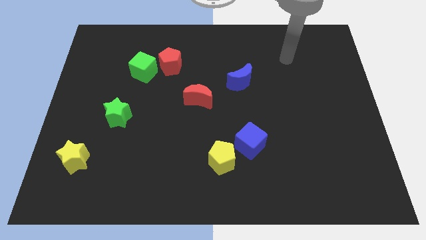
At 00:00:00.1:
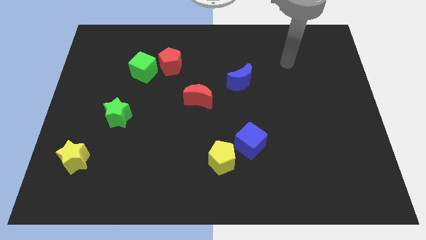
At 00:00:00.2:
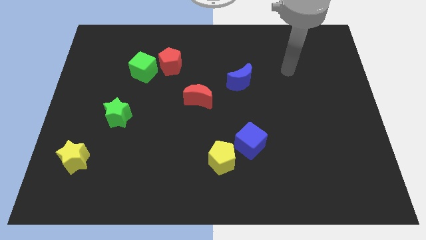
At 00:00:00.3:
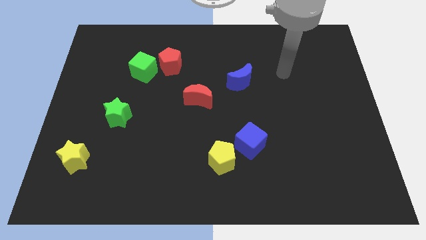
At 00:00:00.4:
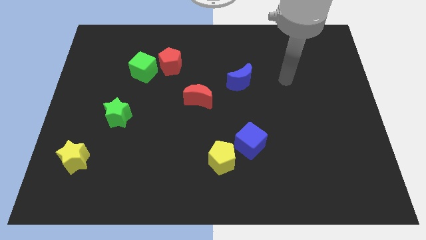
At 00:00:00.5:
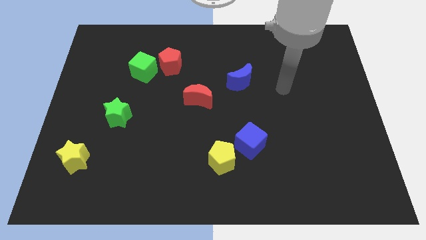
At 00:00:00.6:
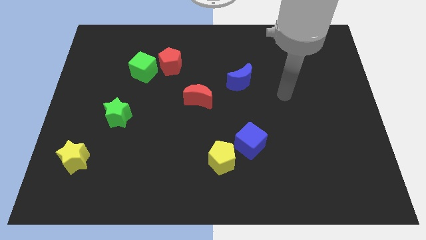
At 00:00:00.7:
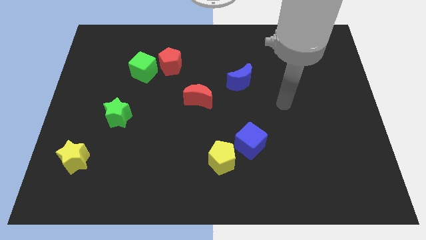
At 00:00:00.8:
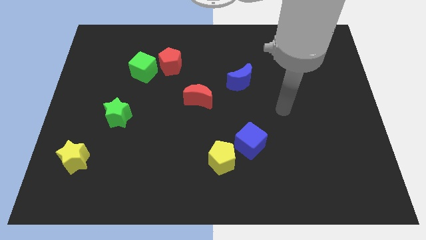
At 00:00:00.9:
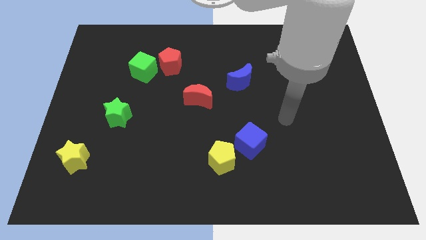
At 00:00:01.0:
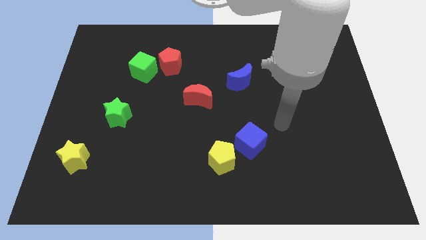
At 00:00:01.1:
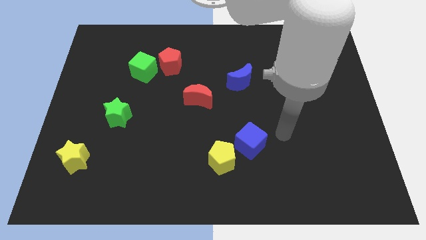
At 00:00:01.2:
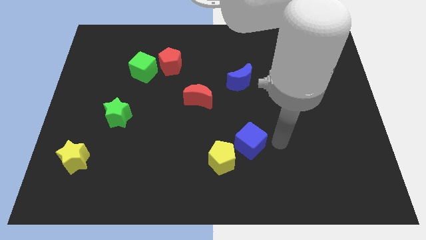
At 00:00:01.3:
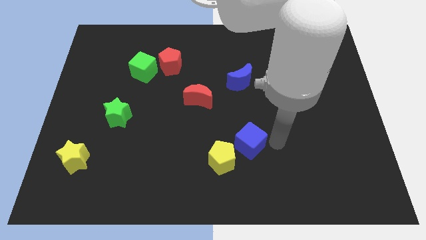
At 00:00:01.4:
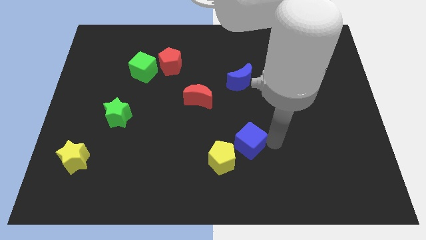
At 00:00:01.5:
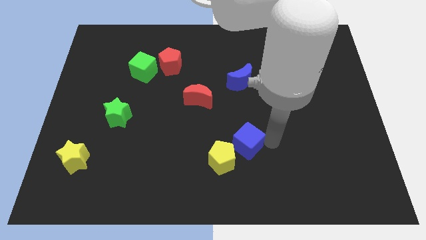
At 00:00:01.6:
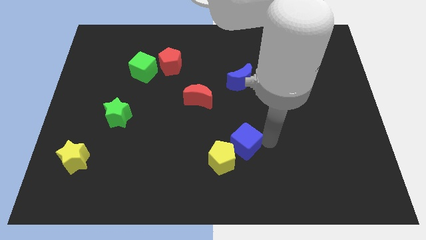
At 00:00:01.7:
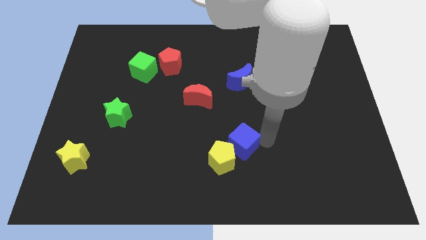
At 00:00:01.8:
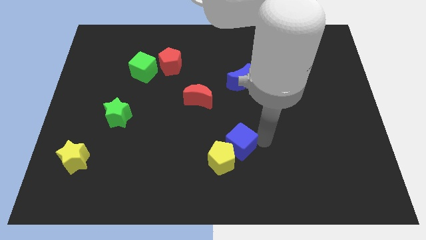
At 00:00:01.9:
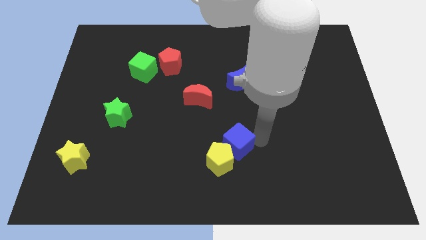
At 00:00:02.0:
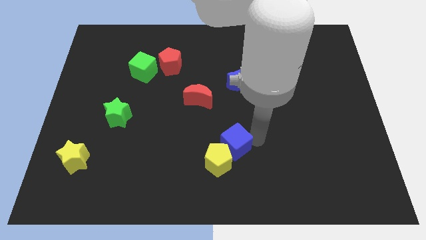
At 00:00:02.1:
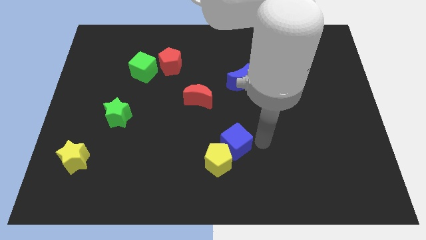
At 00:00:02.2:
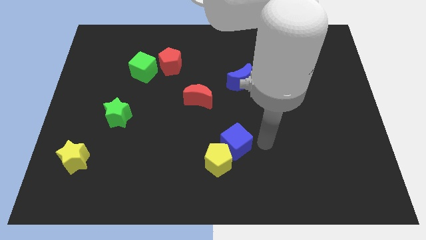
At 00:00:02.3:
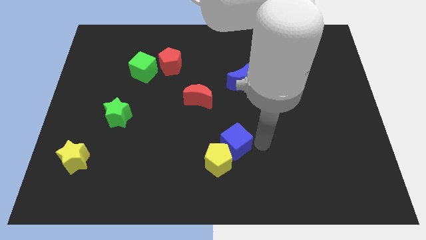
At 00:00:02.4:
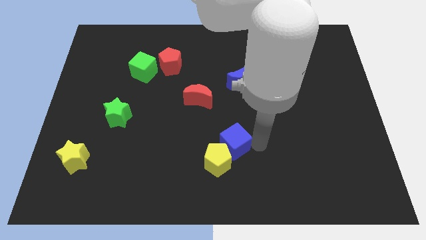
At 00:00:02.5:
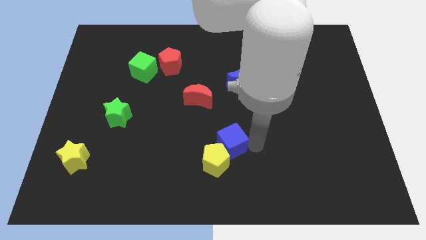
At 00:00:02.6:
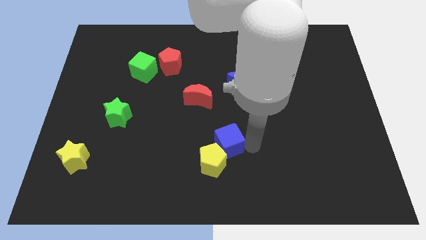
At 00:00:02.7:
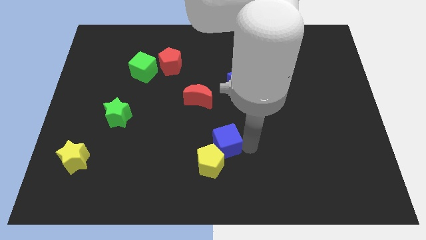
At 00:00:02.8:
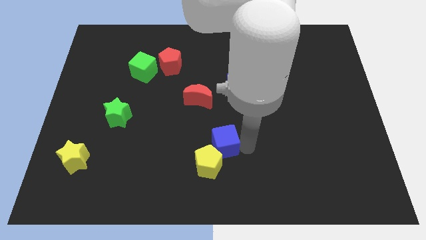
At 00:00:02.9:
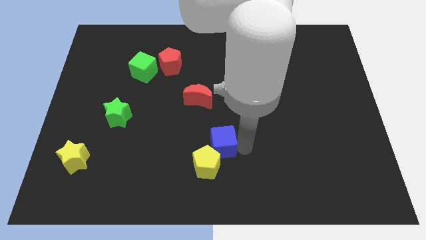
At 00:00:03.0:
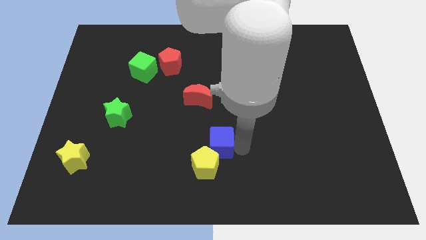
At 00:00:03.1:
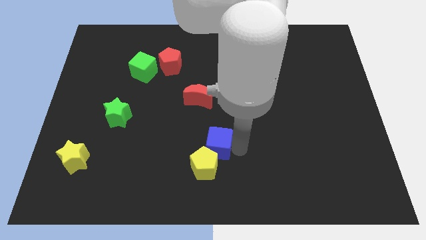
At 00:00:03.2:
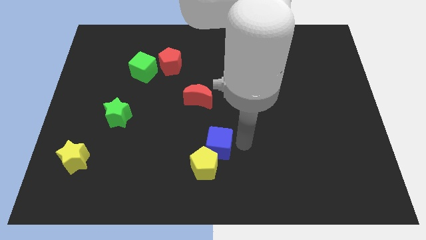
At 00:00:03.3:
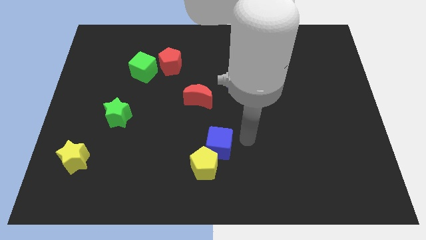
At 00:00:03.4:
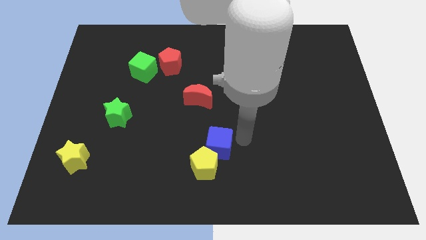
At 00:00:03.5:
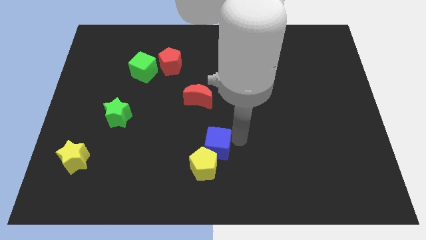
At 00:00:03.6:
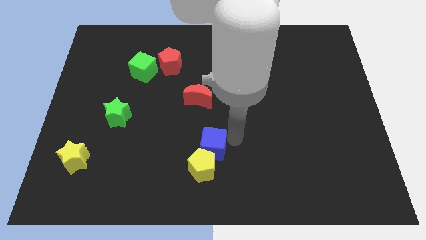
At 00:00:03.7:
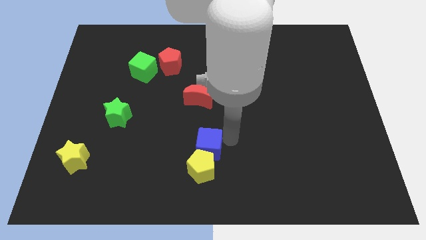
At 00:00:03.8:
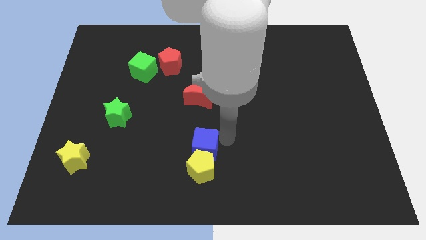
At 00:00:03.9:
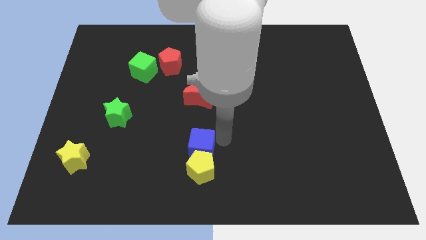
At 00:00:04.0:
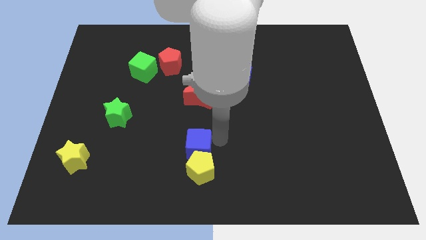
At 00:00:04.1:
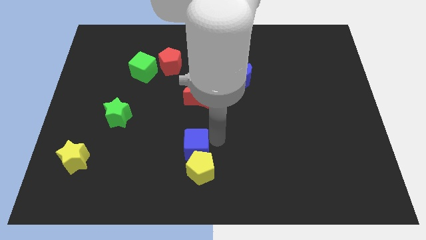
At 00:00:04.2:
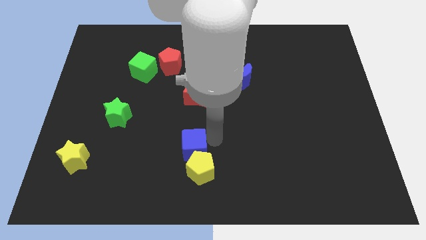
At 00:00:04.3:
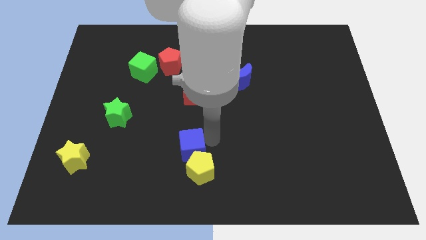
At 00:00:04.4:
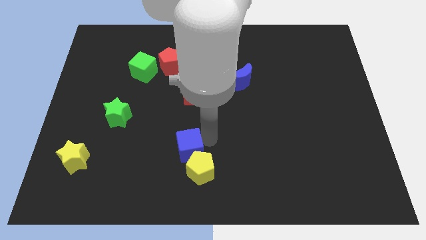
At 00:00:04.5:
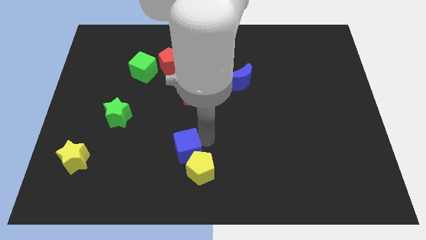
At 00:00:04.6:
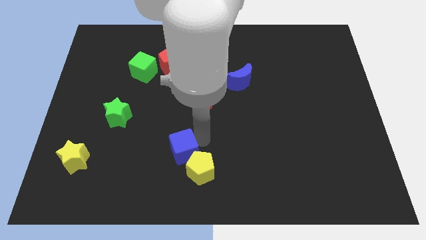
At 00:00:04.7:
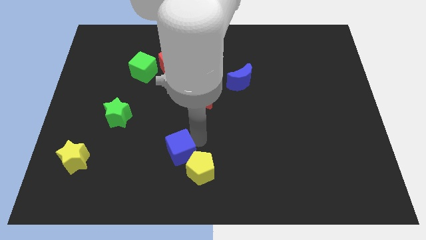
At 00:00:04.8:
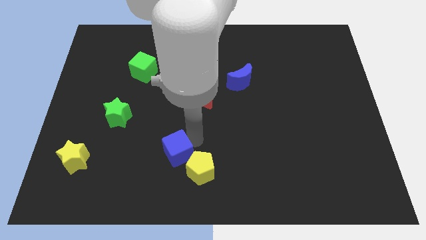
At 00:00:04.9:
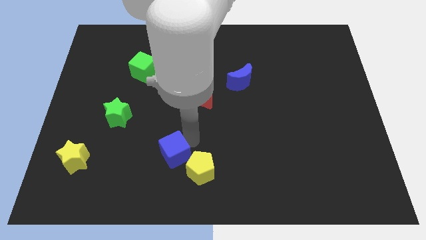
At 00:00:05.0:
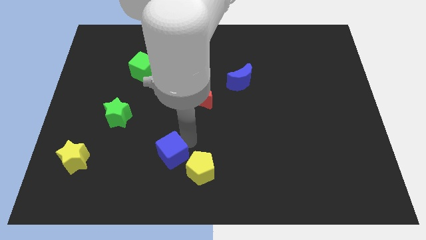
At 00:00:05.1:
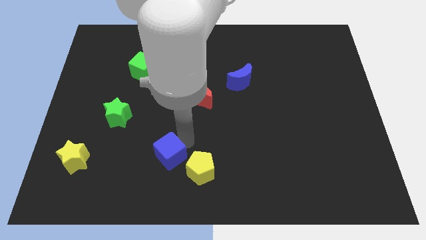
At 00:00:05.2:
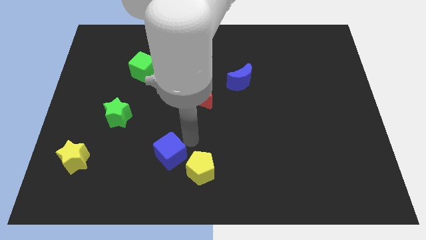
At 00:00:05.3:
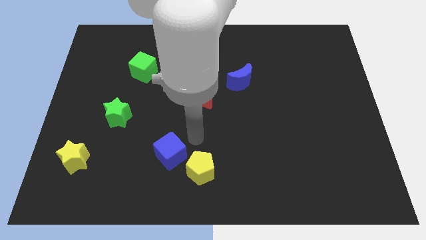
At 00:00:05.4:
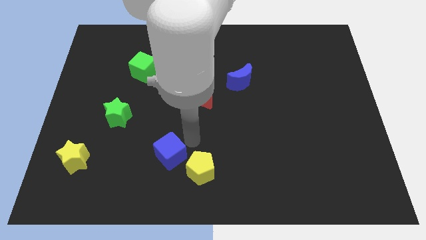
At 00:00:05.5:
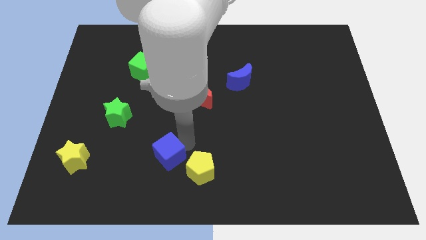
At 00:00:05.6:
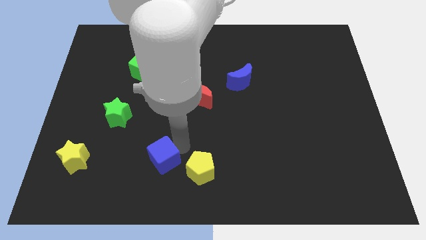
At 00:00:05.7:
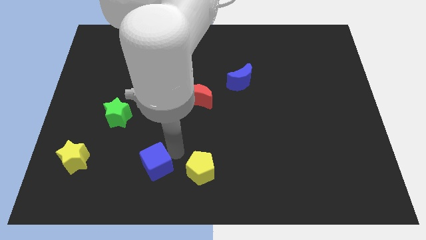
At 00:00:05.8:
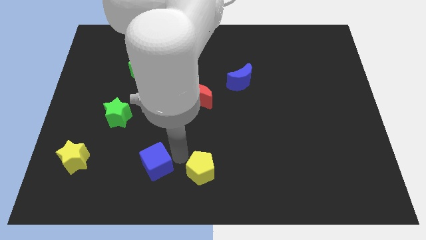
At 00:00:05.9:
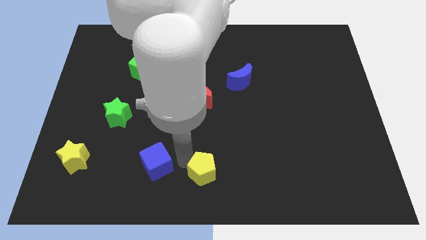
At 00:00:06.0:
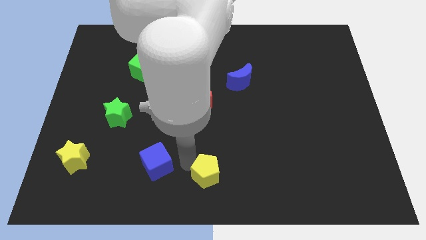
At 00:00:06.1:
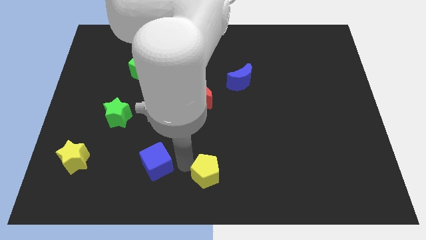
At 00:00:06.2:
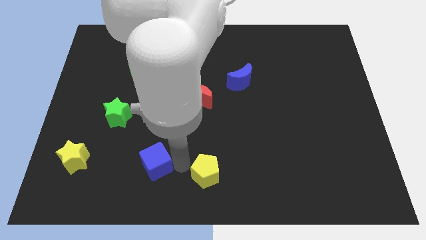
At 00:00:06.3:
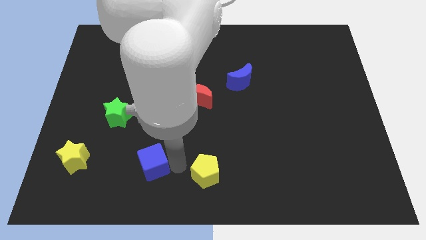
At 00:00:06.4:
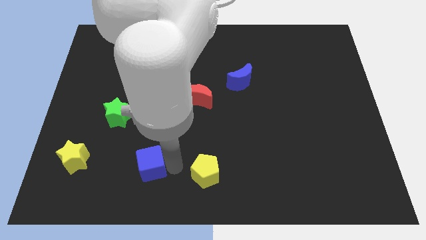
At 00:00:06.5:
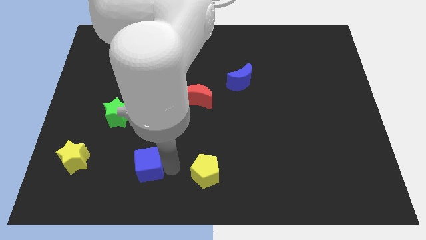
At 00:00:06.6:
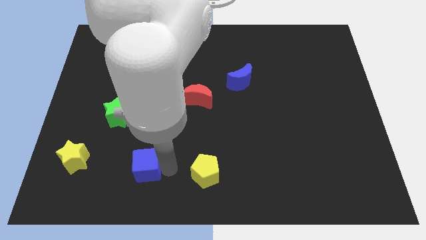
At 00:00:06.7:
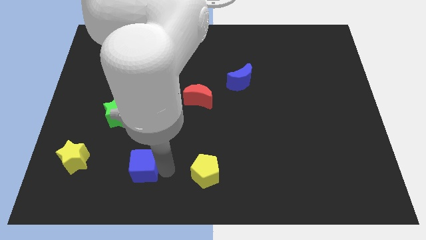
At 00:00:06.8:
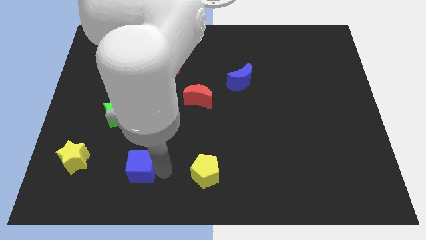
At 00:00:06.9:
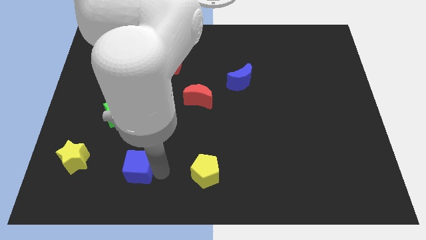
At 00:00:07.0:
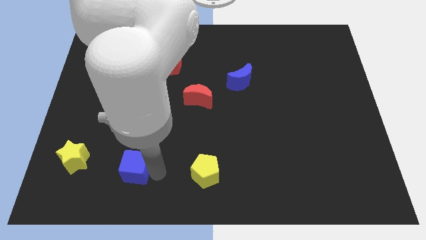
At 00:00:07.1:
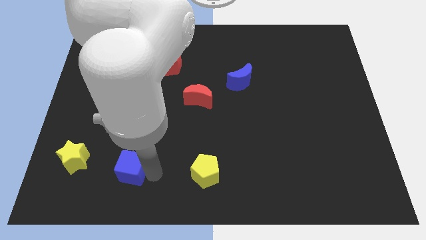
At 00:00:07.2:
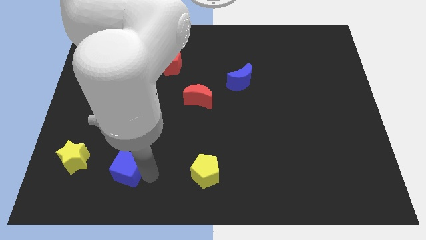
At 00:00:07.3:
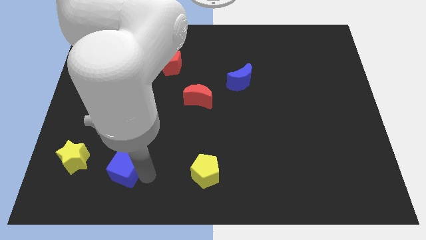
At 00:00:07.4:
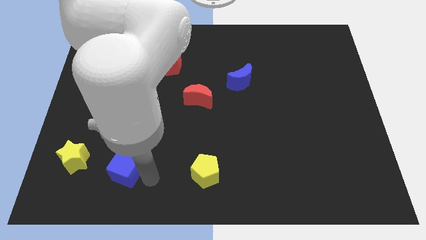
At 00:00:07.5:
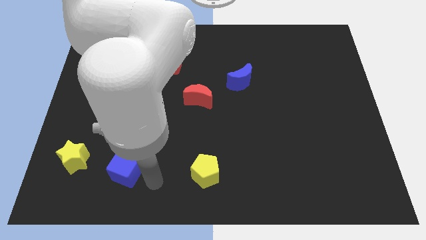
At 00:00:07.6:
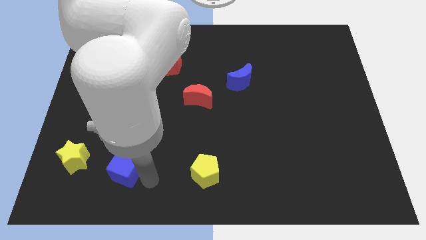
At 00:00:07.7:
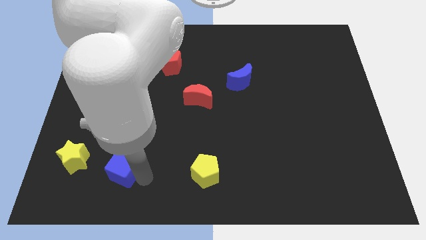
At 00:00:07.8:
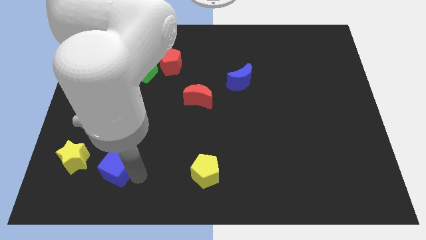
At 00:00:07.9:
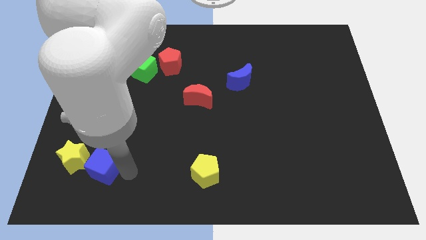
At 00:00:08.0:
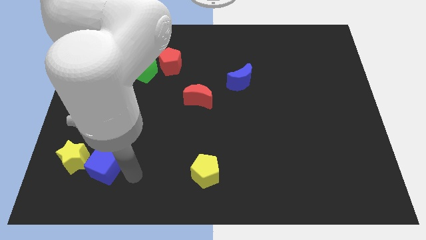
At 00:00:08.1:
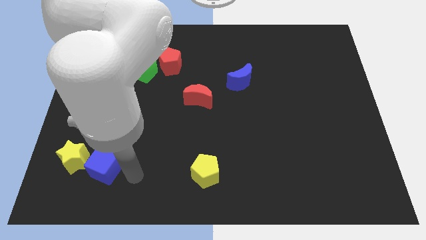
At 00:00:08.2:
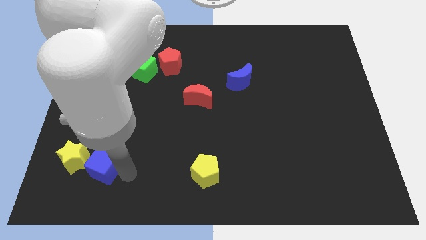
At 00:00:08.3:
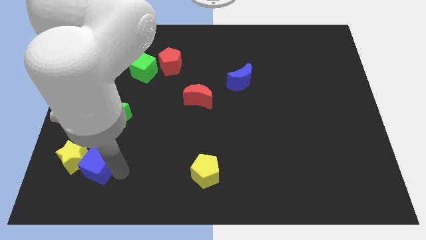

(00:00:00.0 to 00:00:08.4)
slide the blue cube close to the yellow star
